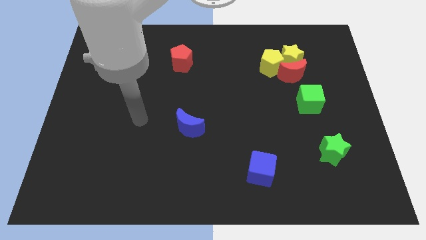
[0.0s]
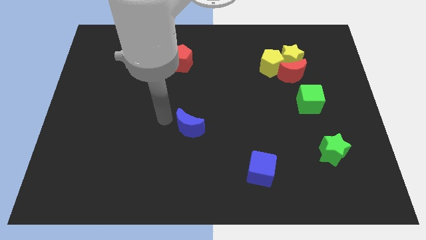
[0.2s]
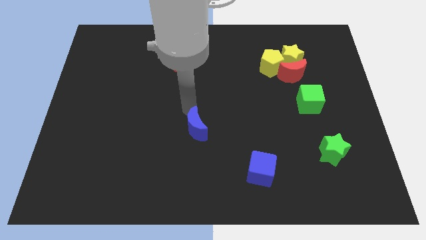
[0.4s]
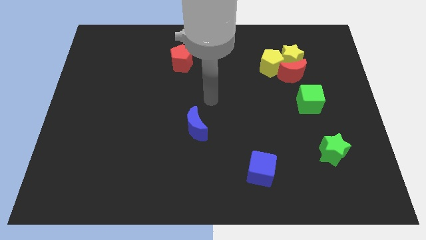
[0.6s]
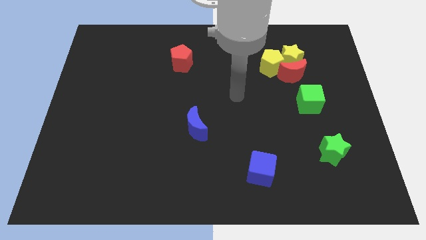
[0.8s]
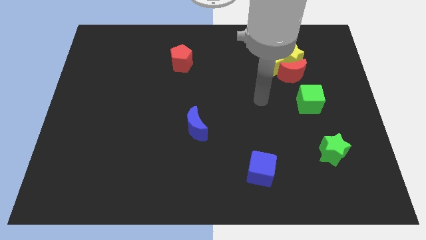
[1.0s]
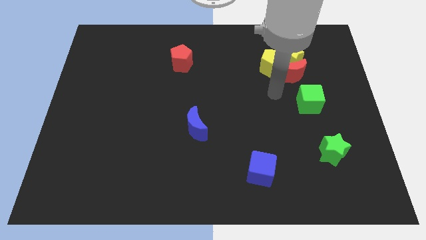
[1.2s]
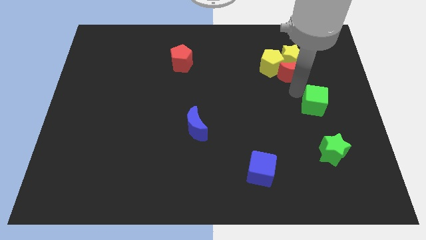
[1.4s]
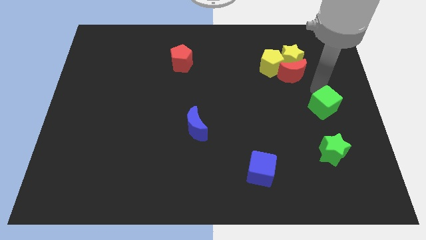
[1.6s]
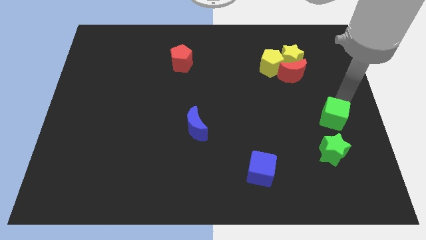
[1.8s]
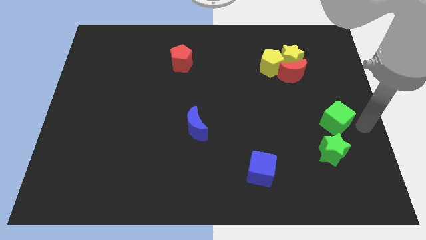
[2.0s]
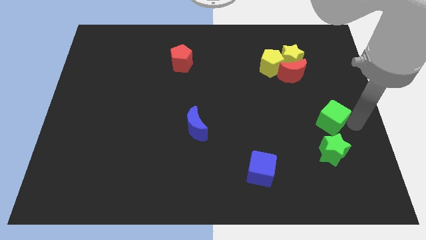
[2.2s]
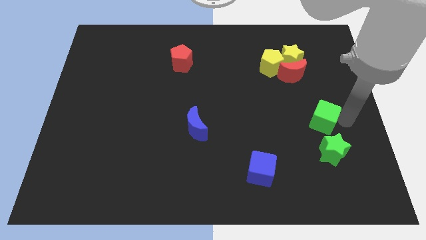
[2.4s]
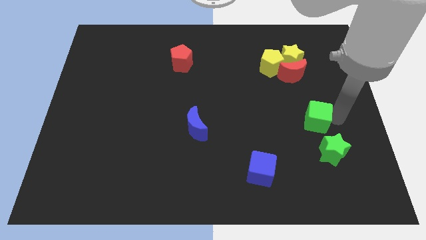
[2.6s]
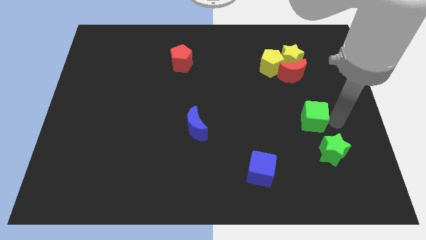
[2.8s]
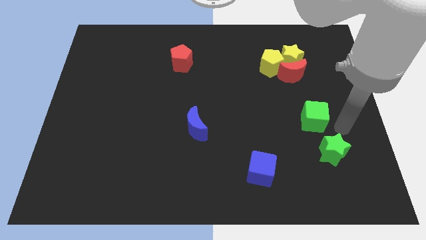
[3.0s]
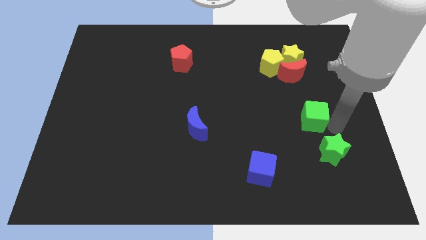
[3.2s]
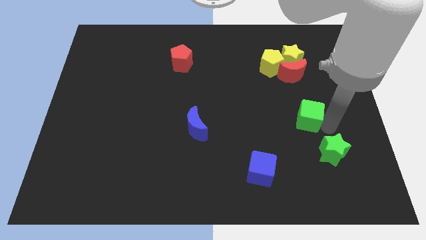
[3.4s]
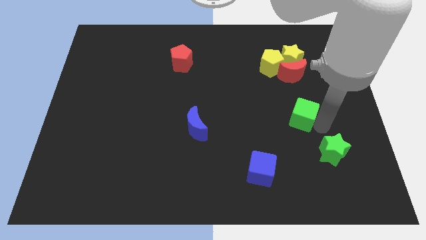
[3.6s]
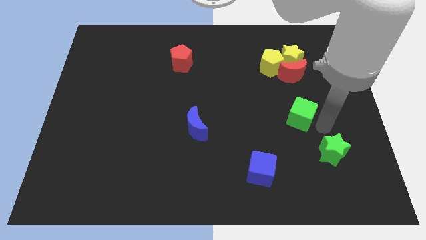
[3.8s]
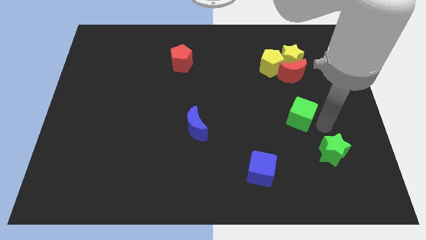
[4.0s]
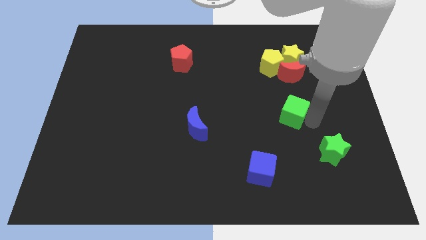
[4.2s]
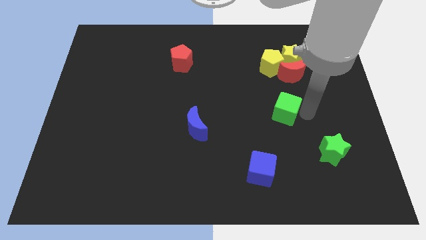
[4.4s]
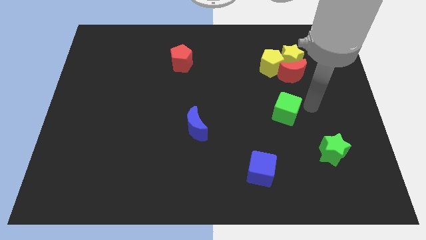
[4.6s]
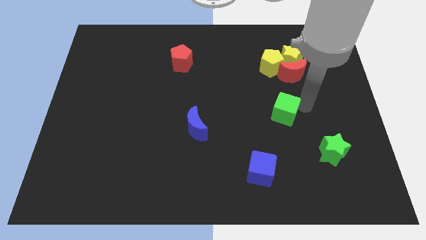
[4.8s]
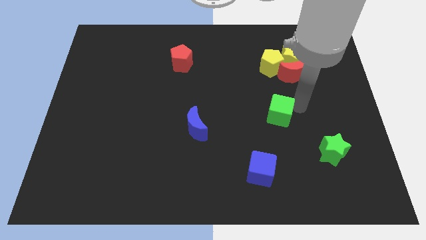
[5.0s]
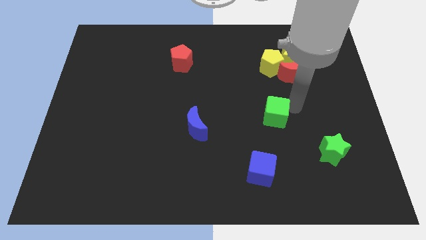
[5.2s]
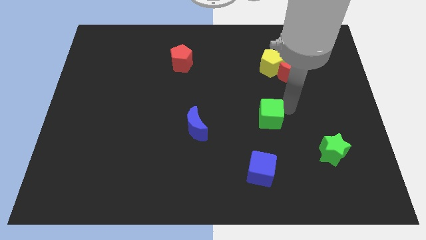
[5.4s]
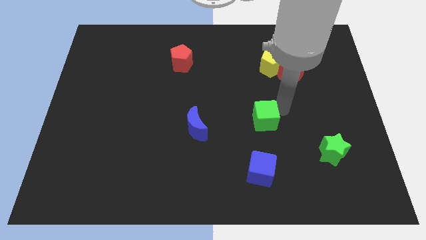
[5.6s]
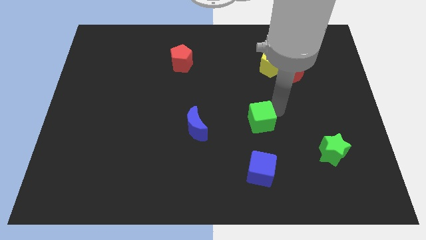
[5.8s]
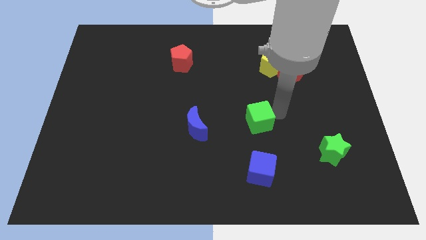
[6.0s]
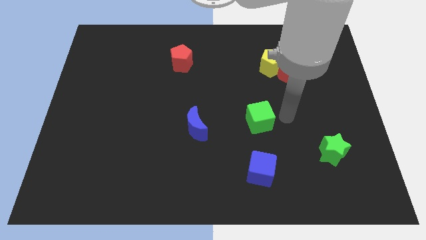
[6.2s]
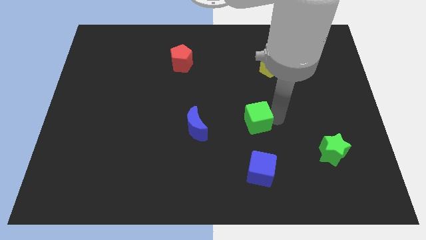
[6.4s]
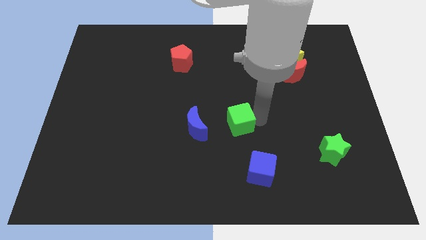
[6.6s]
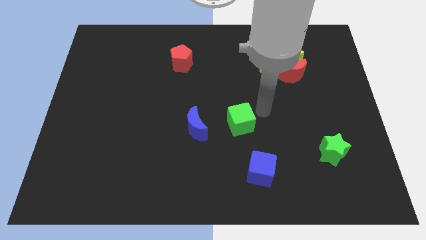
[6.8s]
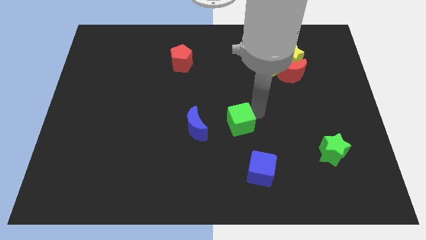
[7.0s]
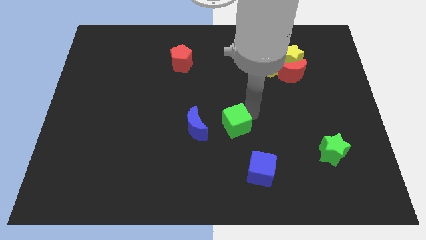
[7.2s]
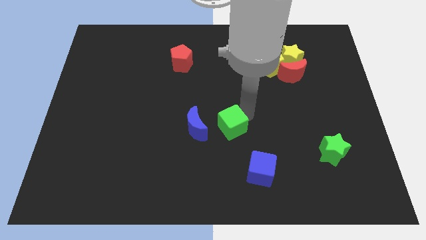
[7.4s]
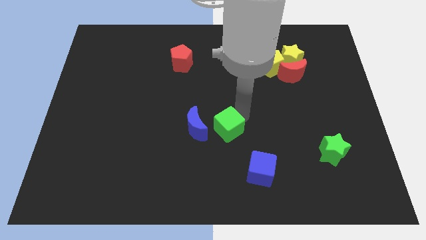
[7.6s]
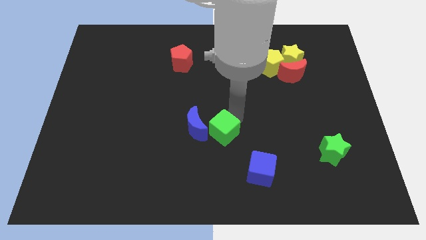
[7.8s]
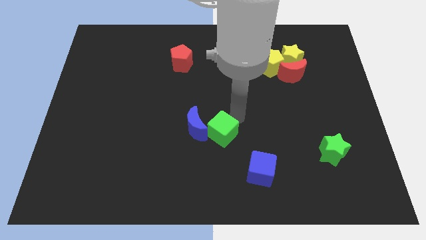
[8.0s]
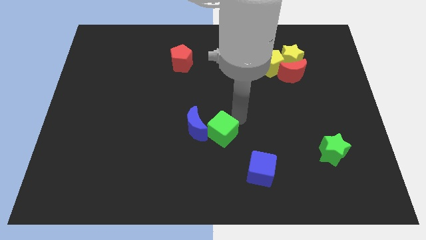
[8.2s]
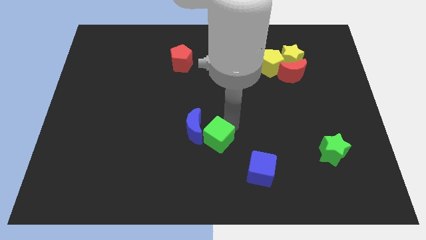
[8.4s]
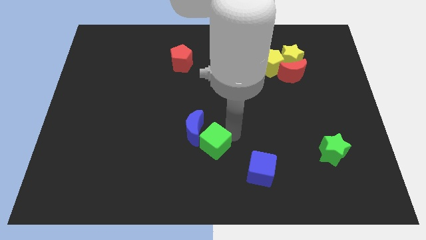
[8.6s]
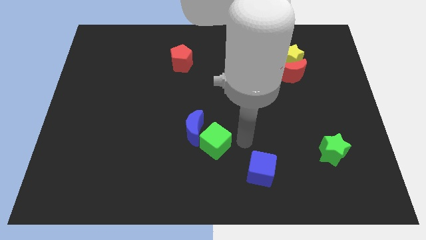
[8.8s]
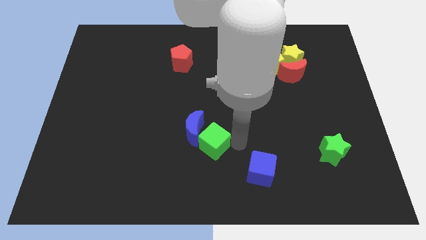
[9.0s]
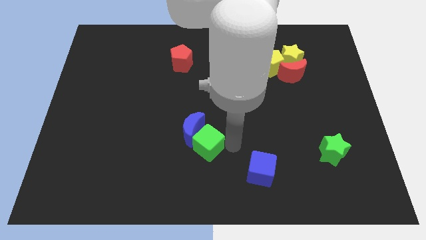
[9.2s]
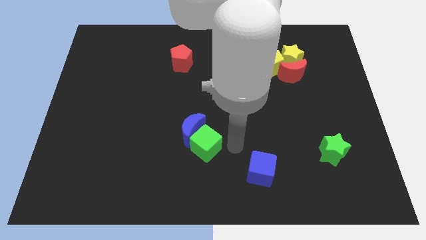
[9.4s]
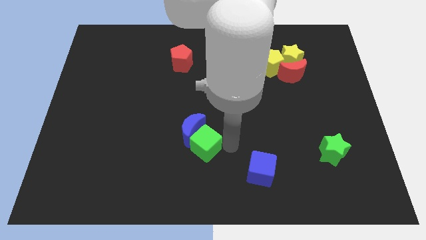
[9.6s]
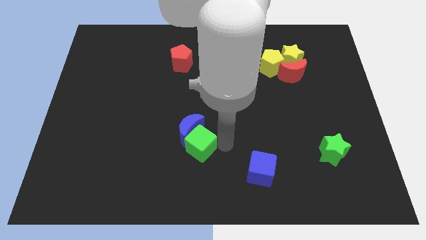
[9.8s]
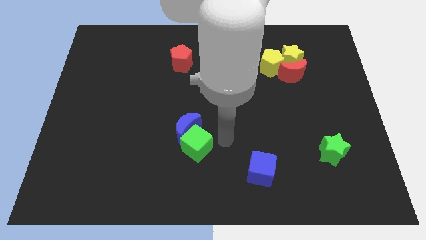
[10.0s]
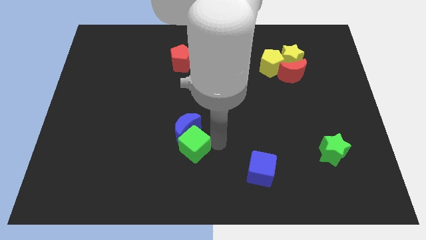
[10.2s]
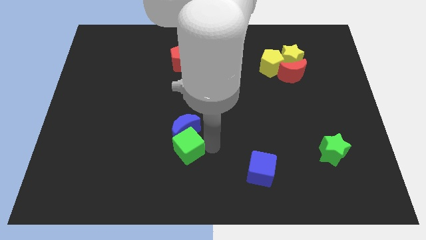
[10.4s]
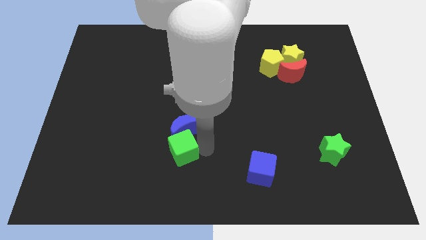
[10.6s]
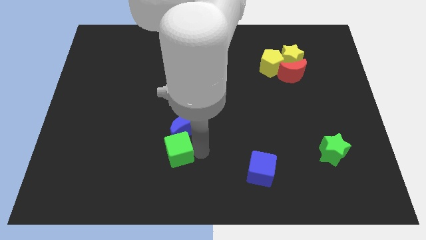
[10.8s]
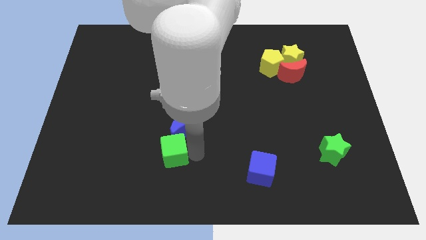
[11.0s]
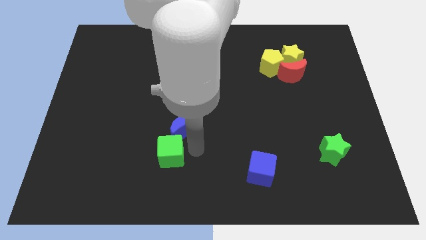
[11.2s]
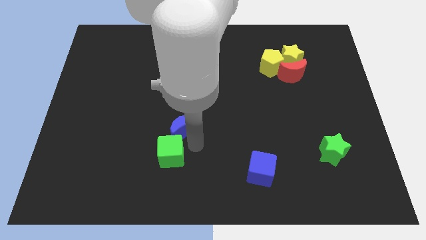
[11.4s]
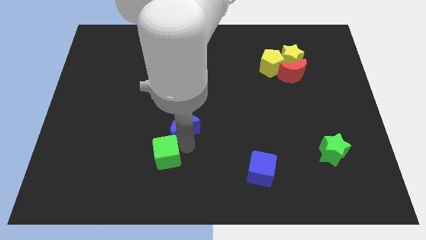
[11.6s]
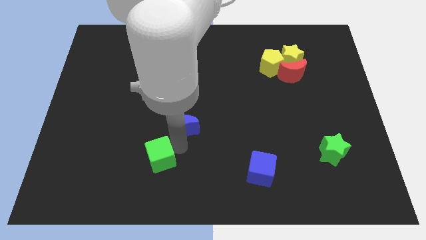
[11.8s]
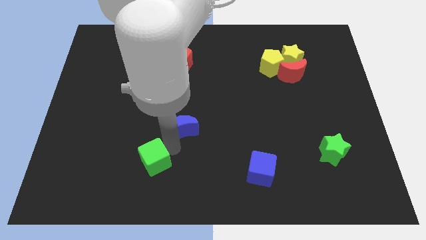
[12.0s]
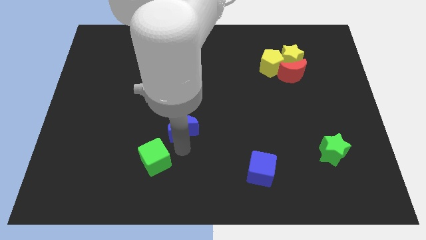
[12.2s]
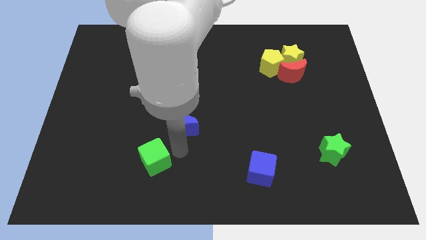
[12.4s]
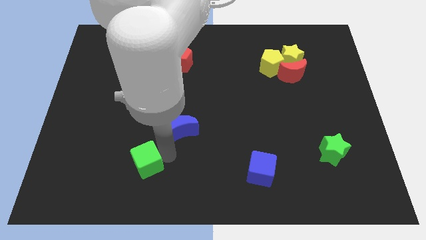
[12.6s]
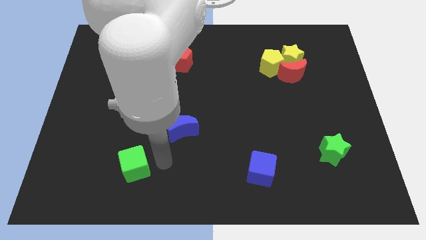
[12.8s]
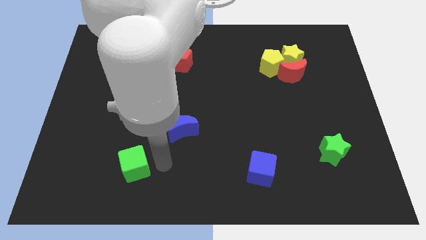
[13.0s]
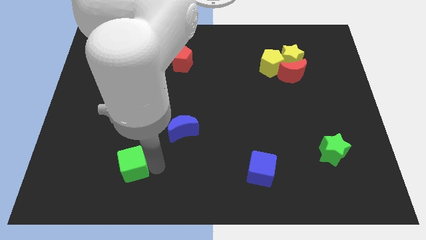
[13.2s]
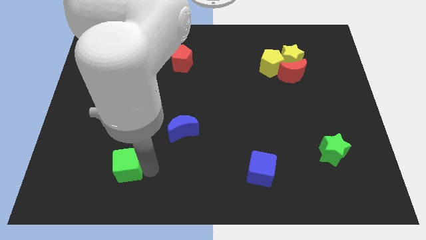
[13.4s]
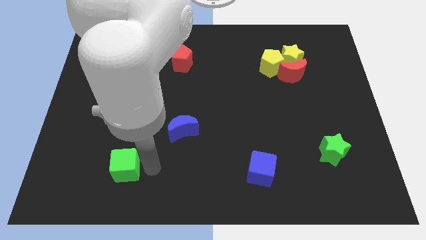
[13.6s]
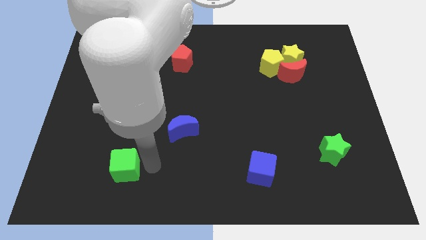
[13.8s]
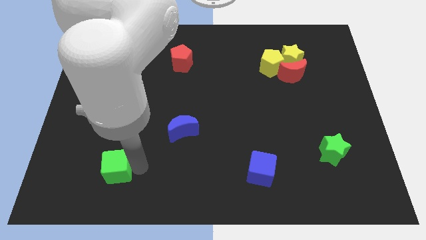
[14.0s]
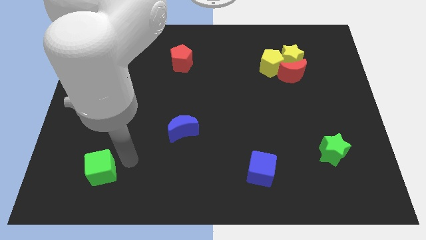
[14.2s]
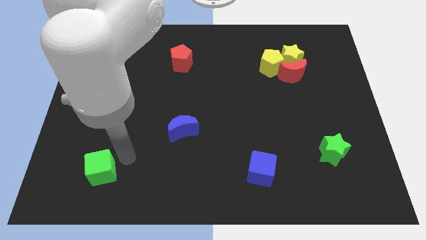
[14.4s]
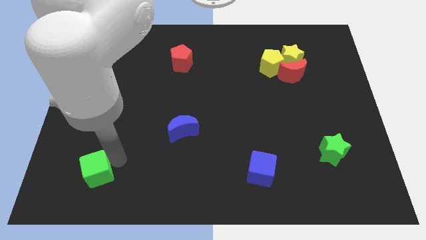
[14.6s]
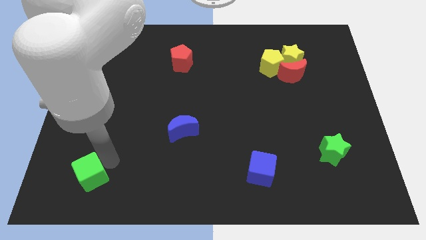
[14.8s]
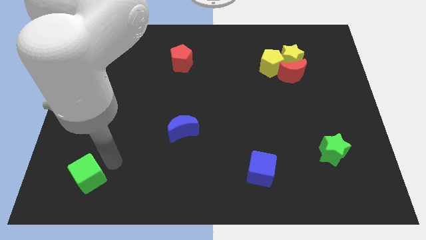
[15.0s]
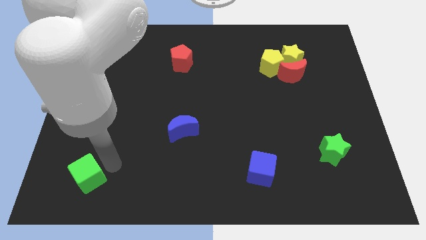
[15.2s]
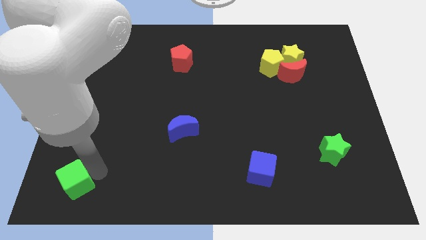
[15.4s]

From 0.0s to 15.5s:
put the green cube to the bottom left of the board
